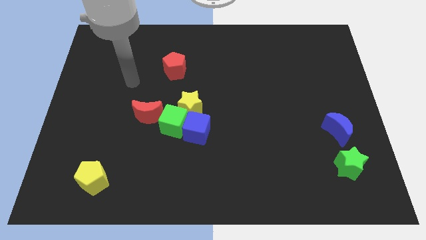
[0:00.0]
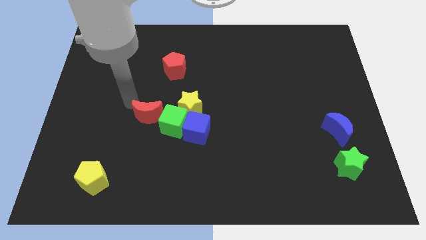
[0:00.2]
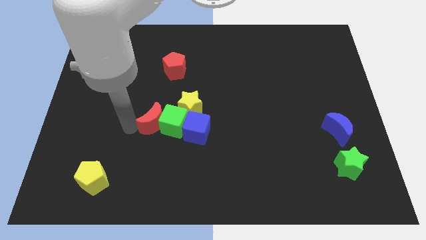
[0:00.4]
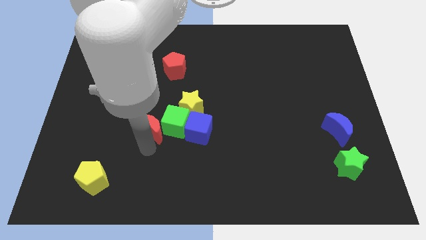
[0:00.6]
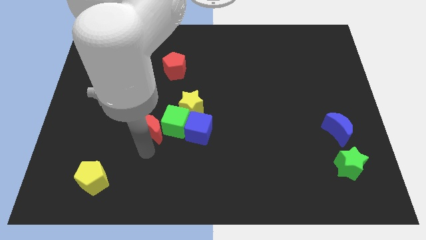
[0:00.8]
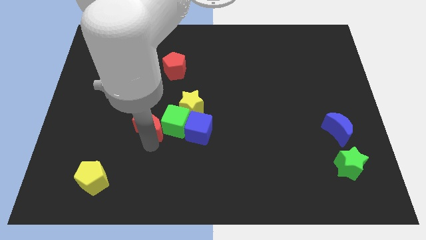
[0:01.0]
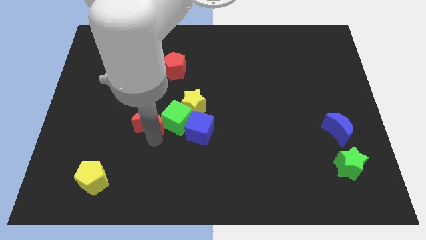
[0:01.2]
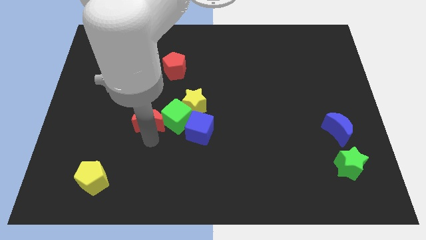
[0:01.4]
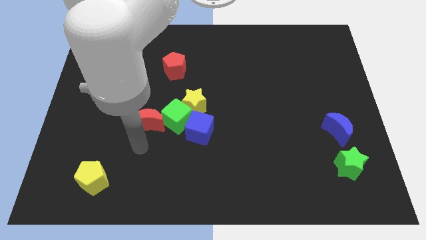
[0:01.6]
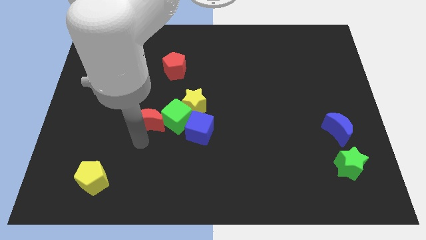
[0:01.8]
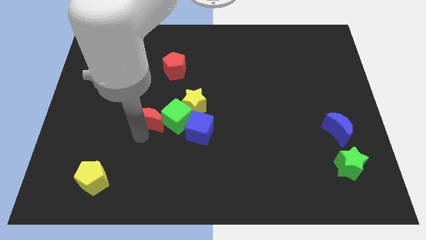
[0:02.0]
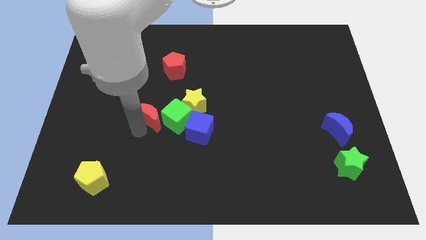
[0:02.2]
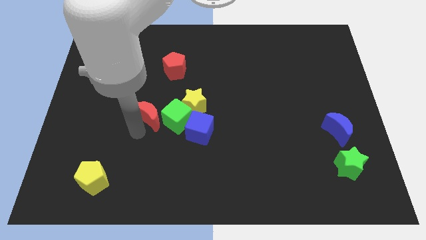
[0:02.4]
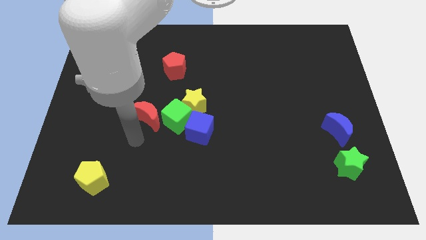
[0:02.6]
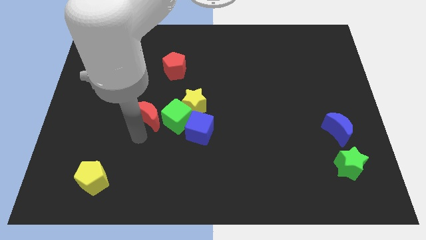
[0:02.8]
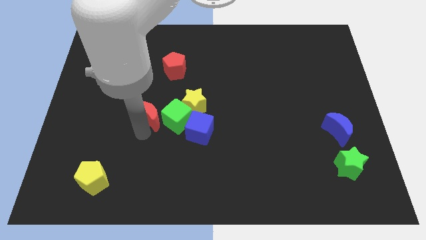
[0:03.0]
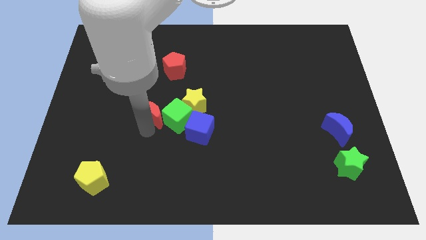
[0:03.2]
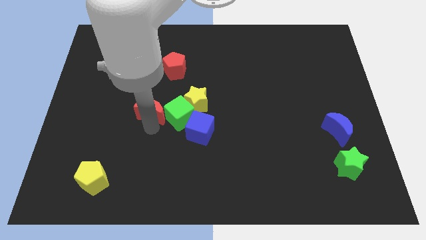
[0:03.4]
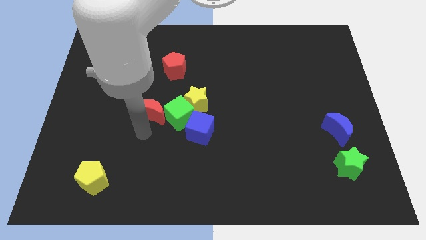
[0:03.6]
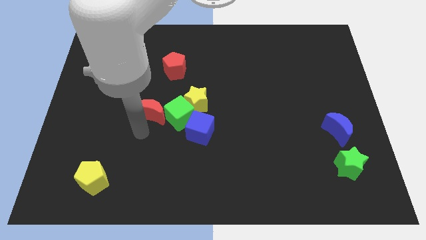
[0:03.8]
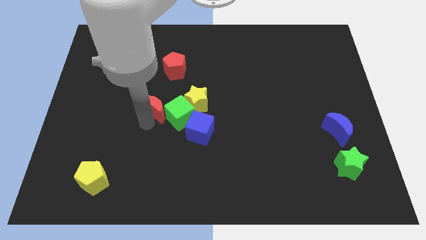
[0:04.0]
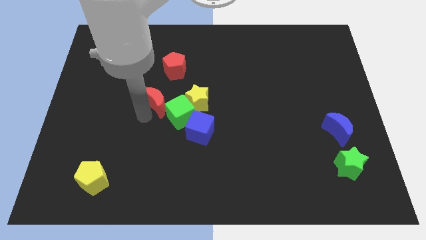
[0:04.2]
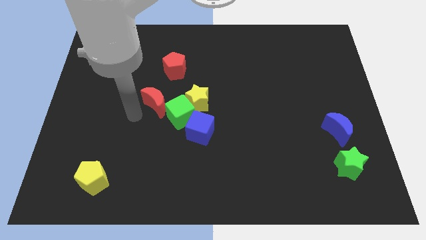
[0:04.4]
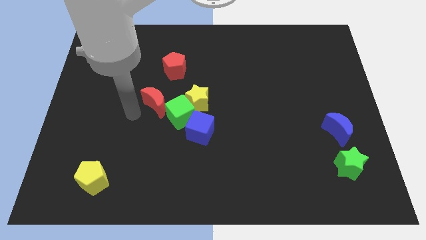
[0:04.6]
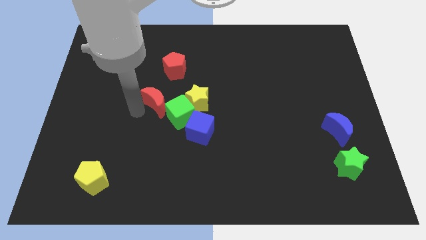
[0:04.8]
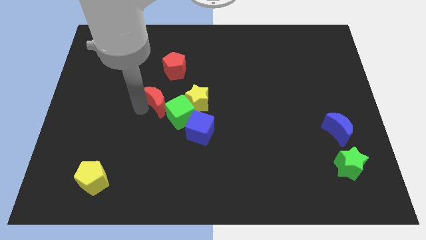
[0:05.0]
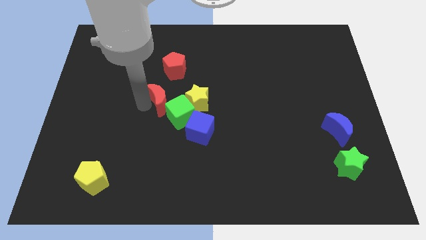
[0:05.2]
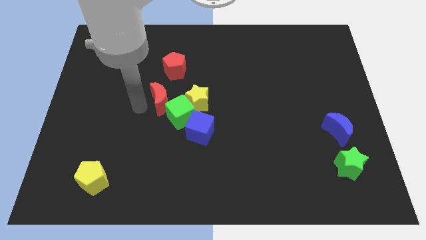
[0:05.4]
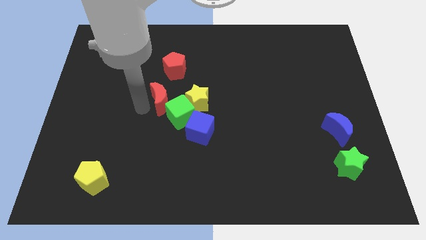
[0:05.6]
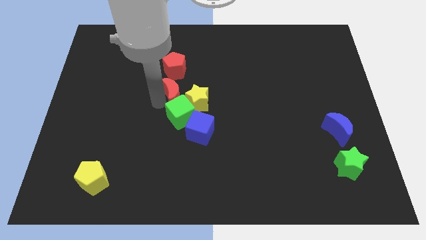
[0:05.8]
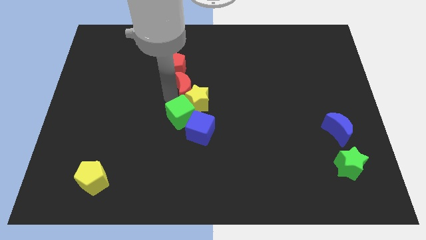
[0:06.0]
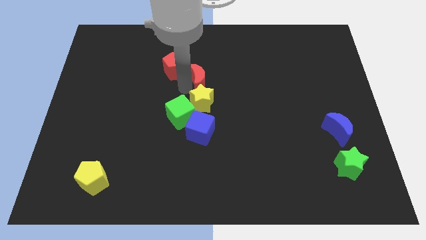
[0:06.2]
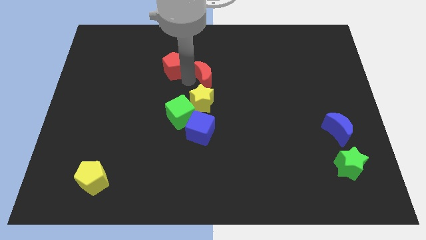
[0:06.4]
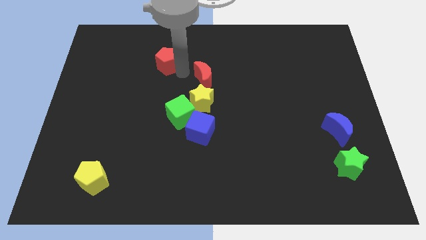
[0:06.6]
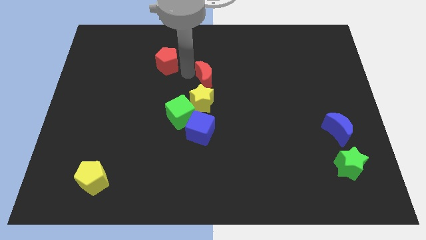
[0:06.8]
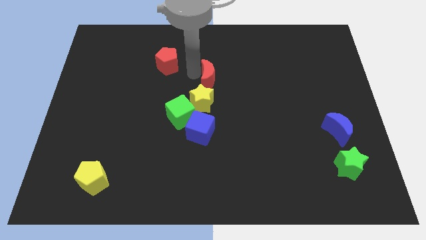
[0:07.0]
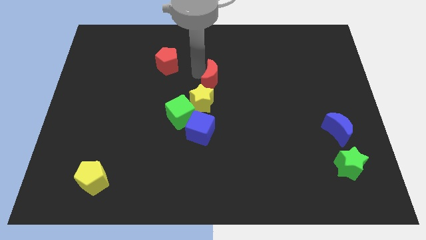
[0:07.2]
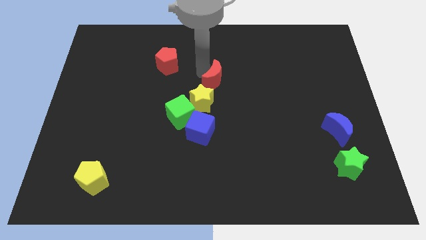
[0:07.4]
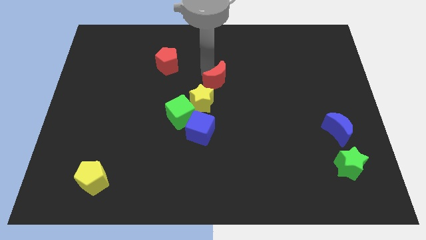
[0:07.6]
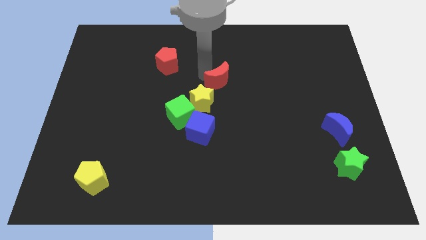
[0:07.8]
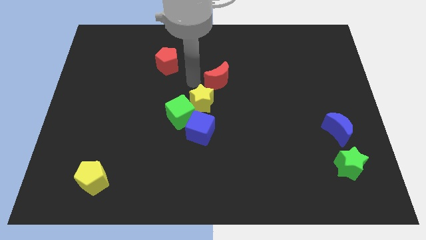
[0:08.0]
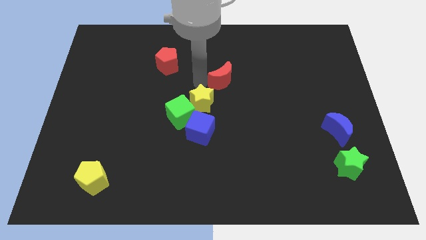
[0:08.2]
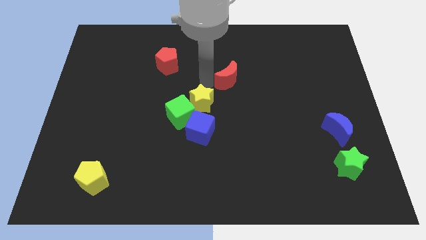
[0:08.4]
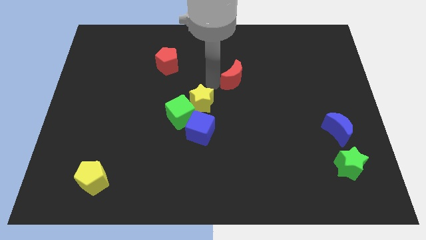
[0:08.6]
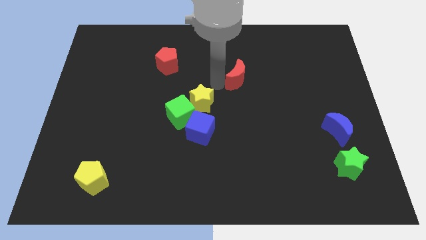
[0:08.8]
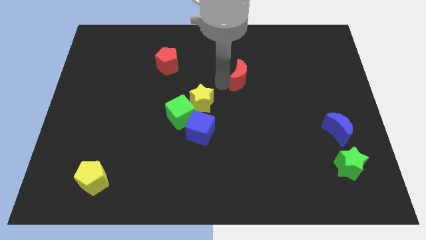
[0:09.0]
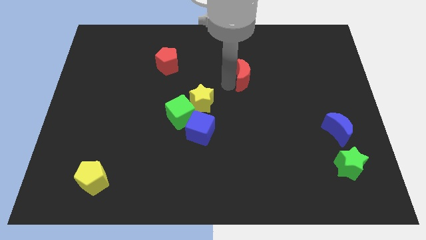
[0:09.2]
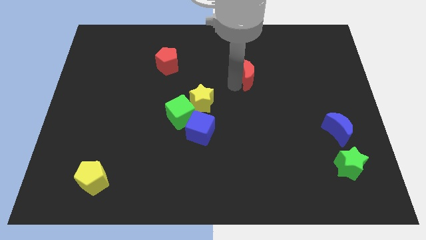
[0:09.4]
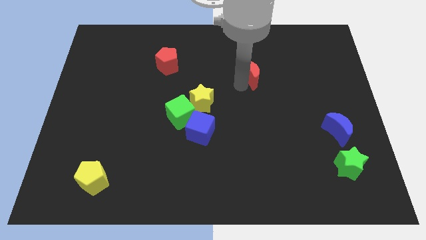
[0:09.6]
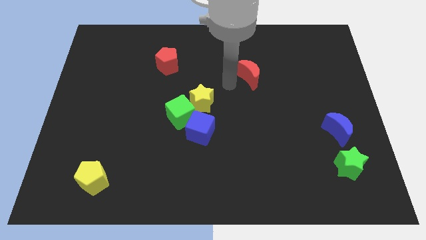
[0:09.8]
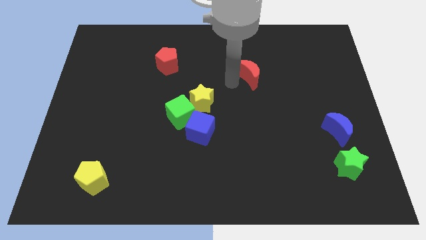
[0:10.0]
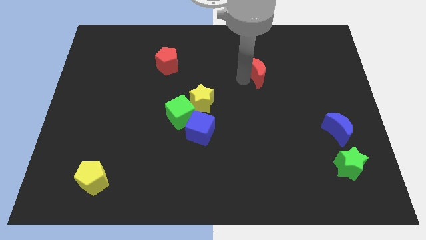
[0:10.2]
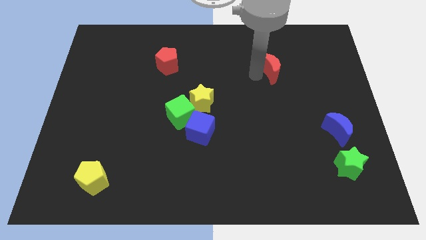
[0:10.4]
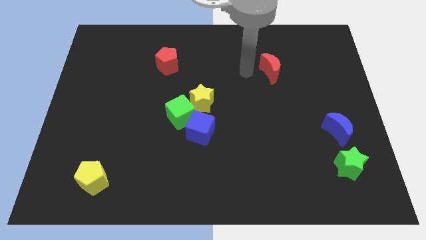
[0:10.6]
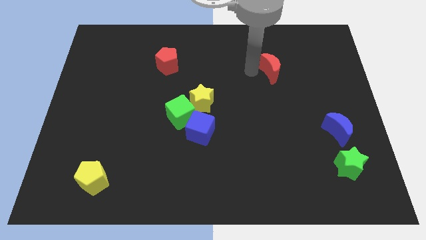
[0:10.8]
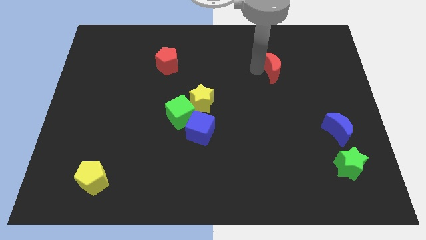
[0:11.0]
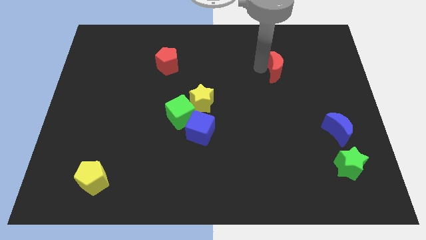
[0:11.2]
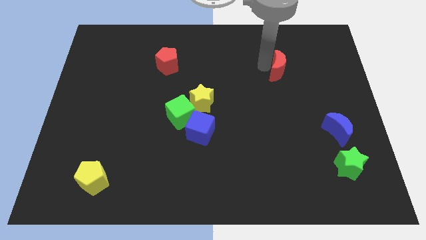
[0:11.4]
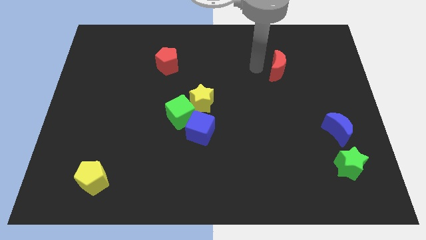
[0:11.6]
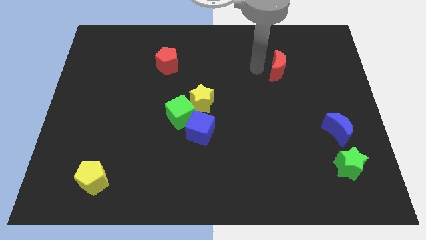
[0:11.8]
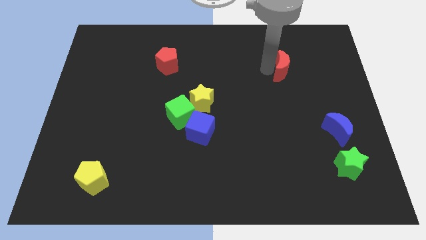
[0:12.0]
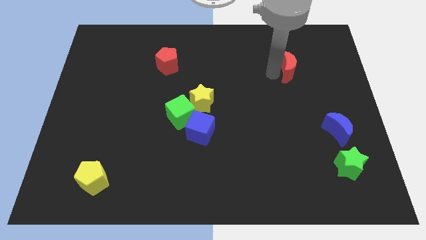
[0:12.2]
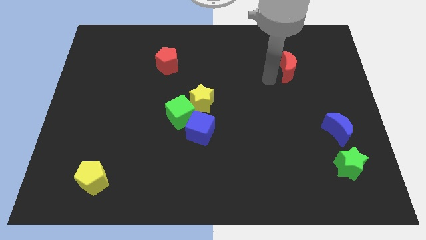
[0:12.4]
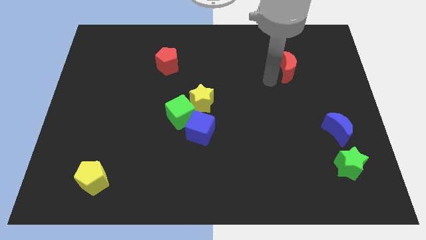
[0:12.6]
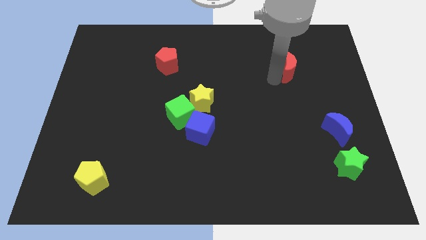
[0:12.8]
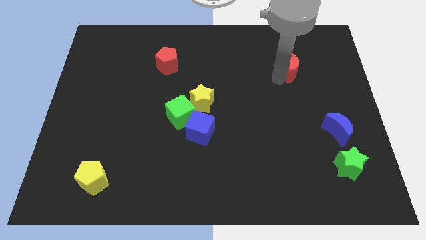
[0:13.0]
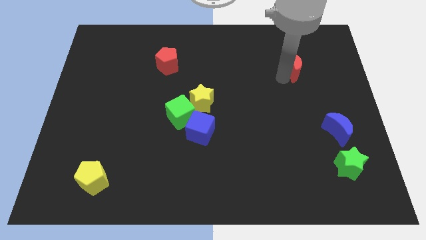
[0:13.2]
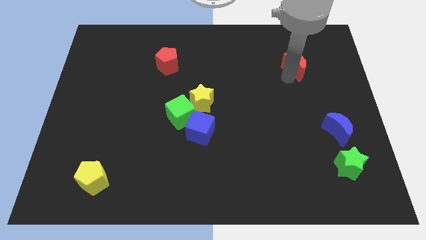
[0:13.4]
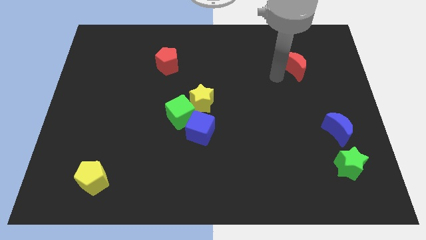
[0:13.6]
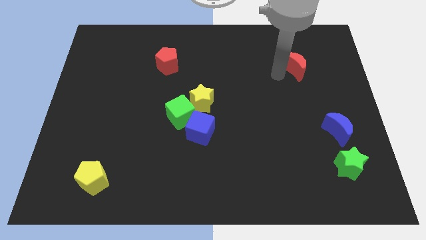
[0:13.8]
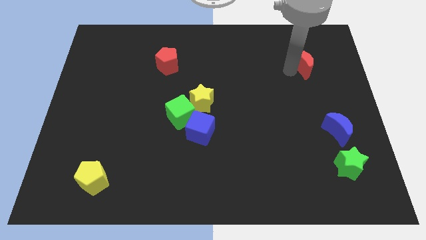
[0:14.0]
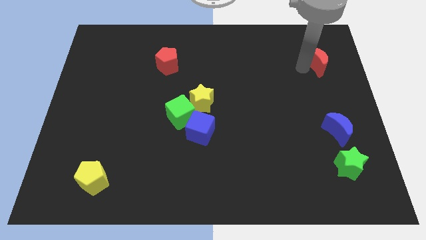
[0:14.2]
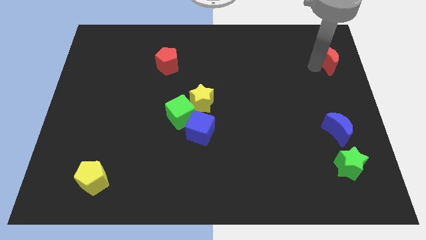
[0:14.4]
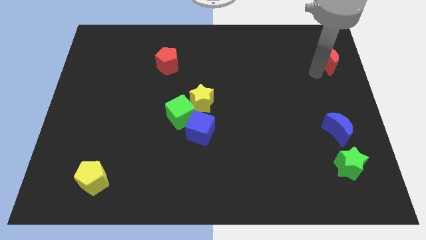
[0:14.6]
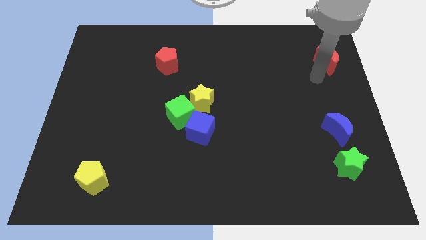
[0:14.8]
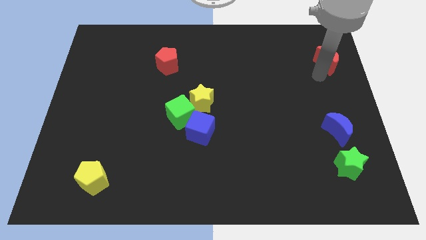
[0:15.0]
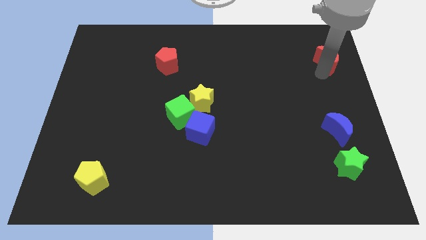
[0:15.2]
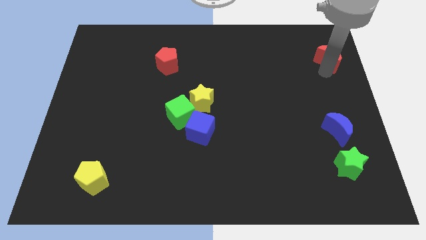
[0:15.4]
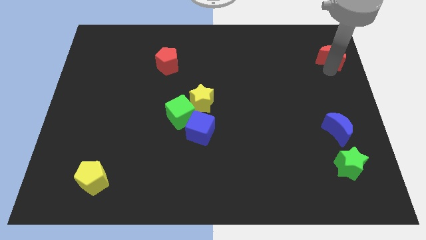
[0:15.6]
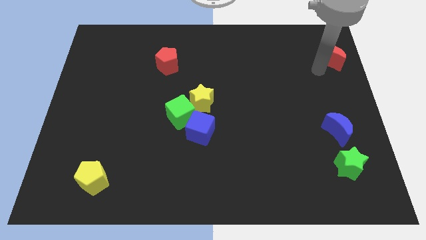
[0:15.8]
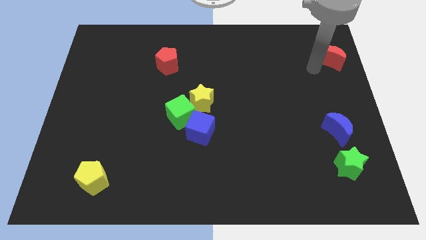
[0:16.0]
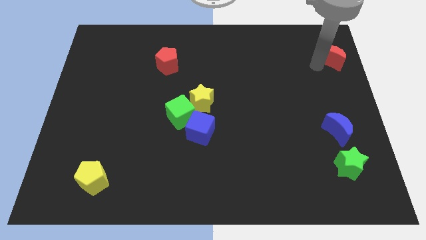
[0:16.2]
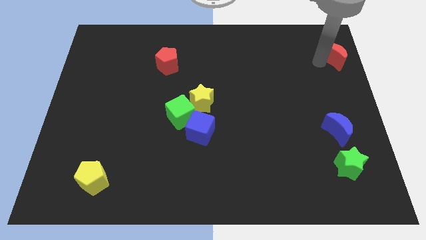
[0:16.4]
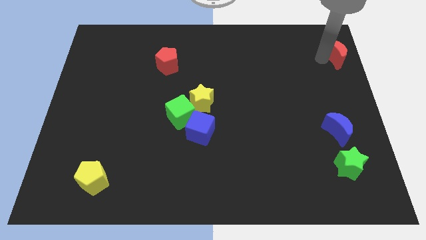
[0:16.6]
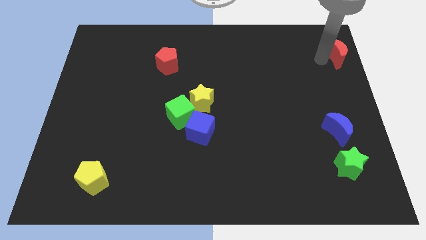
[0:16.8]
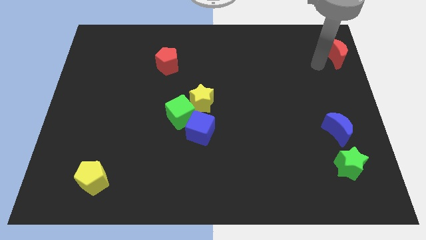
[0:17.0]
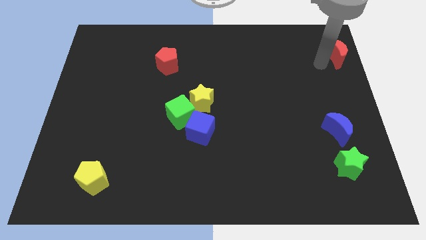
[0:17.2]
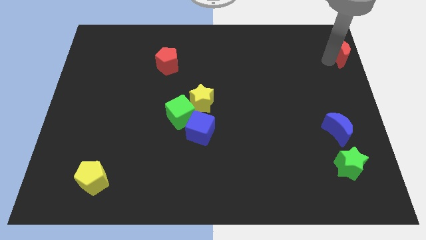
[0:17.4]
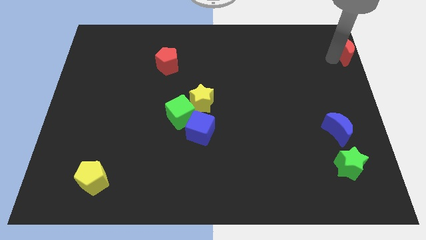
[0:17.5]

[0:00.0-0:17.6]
push the red moon to the top right corner
